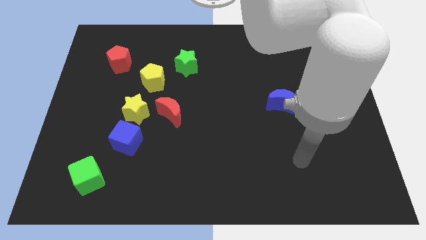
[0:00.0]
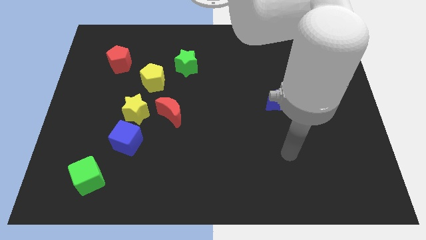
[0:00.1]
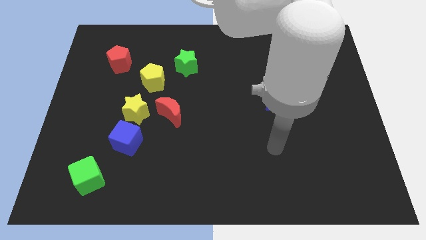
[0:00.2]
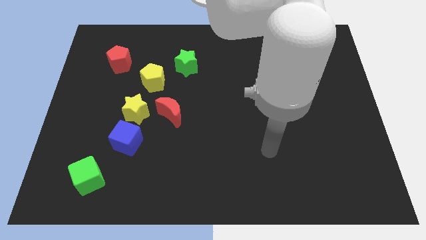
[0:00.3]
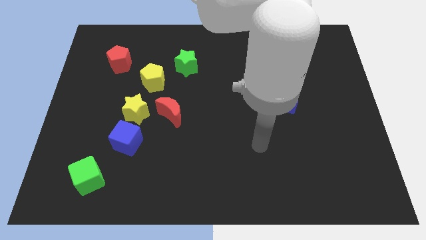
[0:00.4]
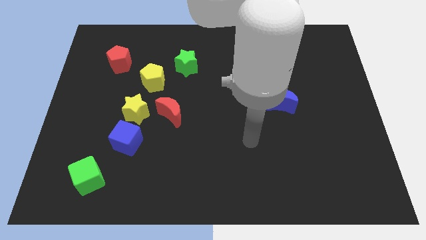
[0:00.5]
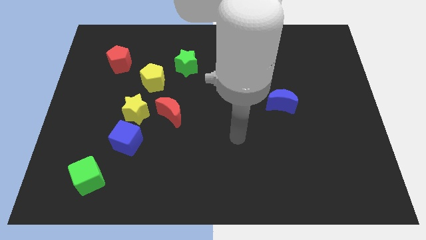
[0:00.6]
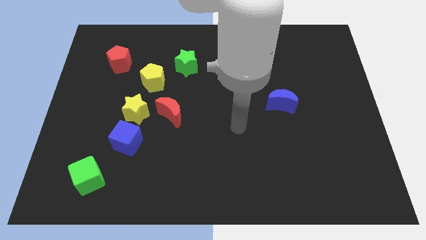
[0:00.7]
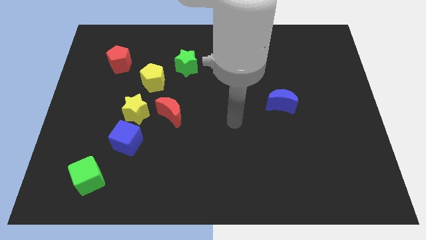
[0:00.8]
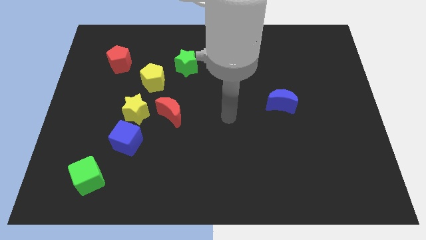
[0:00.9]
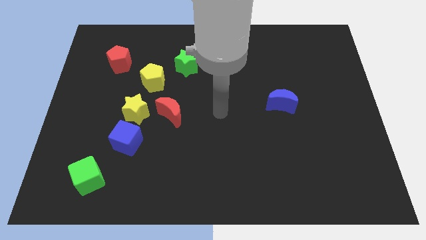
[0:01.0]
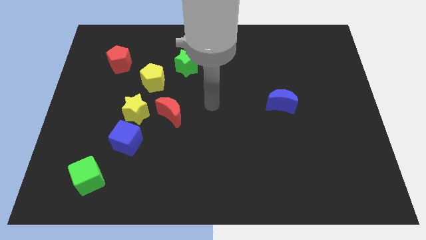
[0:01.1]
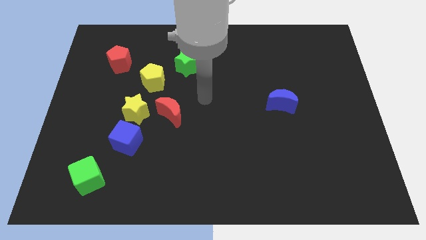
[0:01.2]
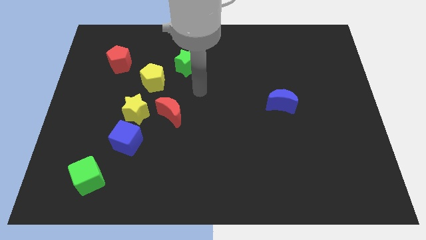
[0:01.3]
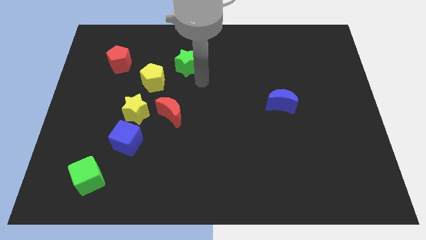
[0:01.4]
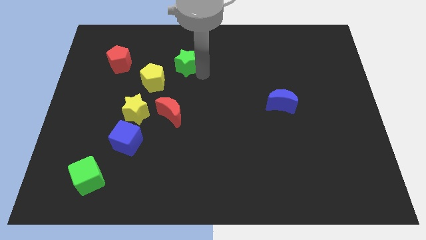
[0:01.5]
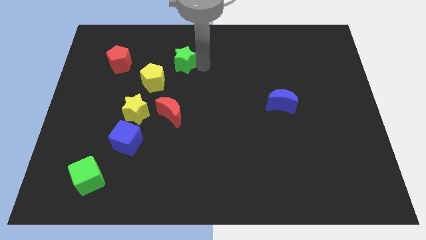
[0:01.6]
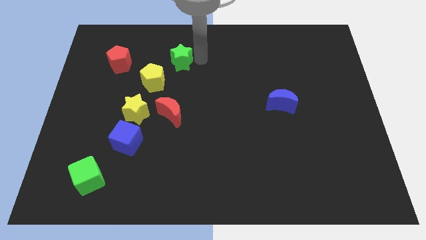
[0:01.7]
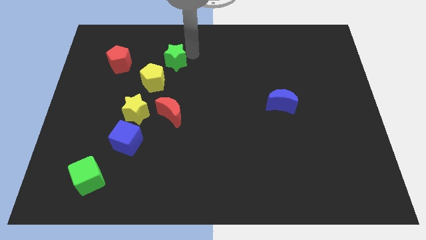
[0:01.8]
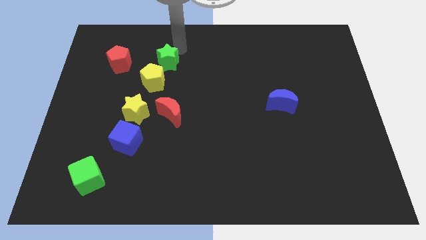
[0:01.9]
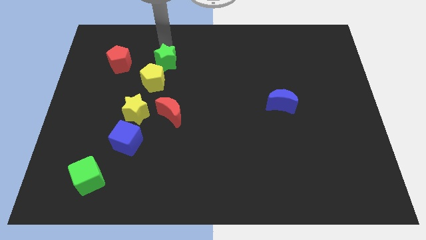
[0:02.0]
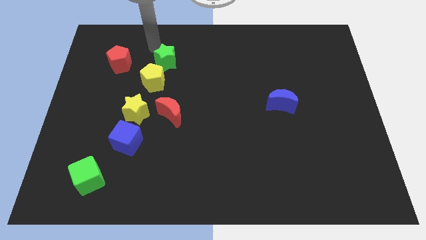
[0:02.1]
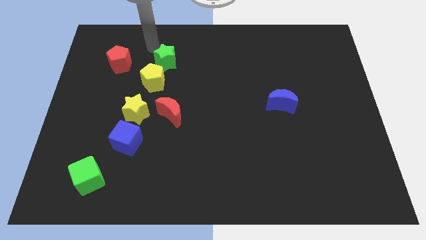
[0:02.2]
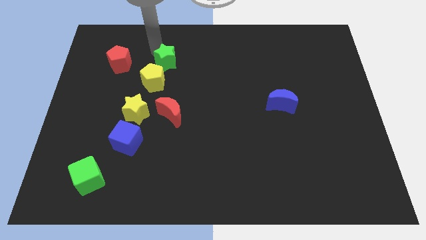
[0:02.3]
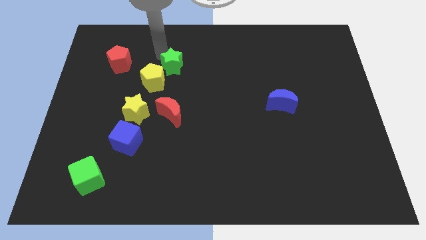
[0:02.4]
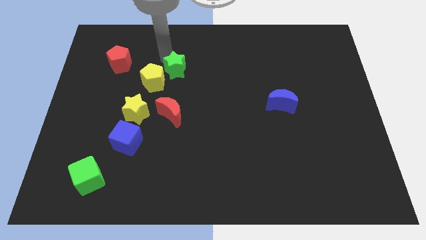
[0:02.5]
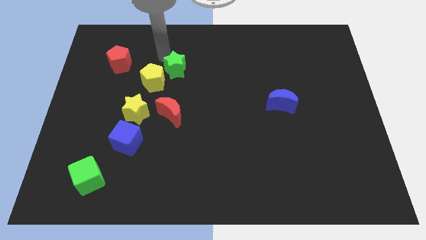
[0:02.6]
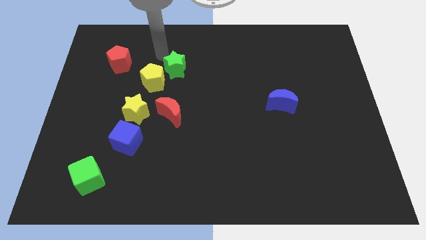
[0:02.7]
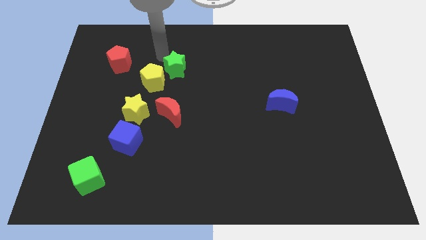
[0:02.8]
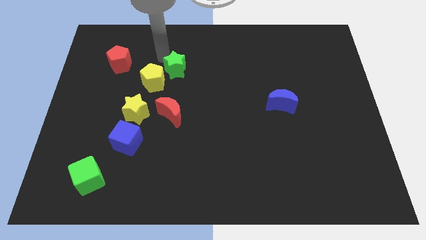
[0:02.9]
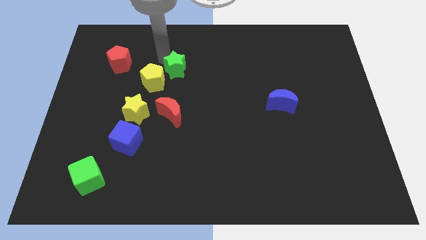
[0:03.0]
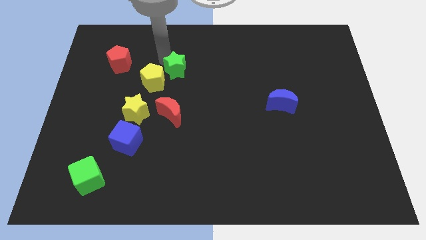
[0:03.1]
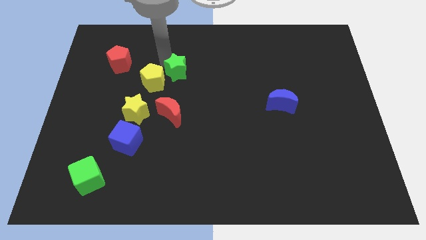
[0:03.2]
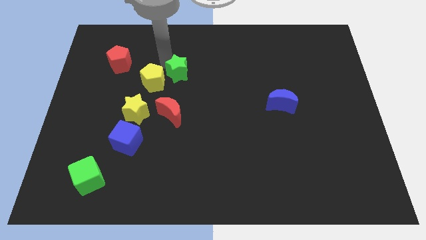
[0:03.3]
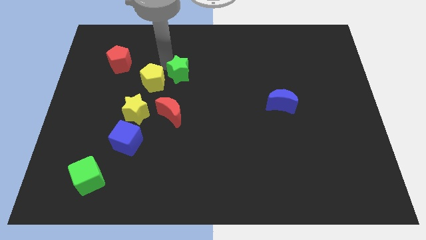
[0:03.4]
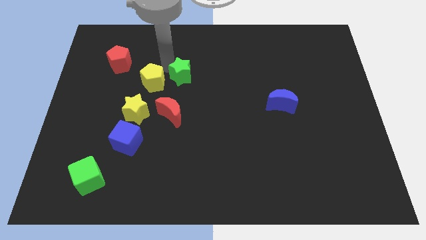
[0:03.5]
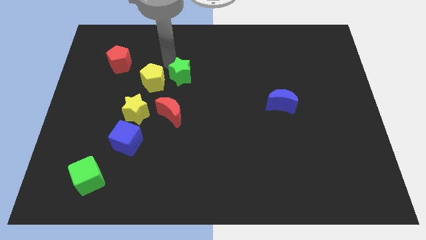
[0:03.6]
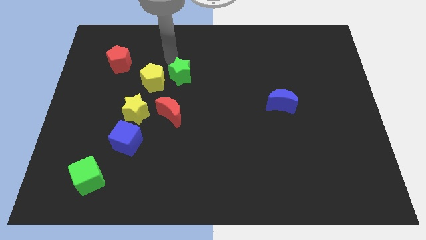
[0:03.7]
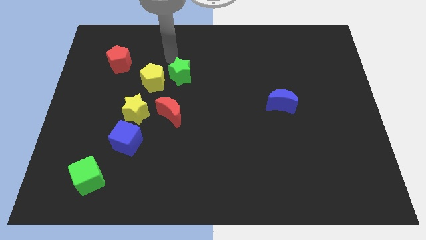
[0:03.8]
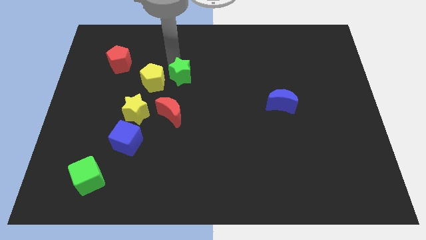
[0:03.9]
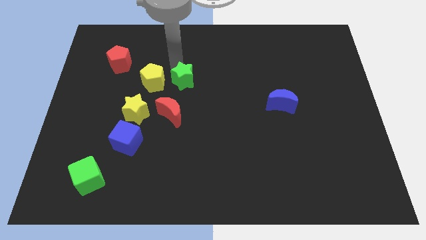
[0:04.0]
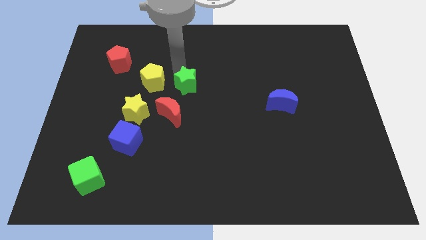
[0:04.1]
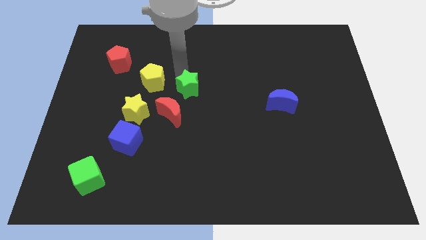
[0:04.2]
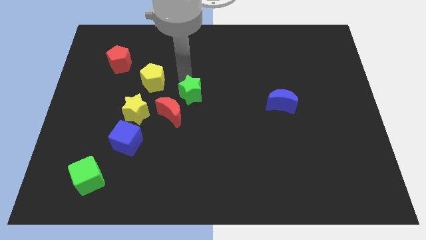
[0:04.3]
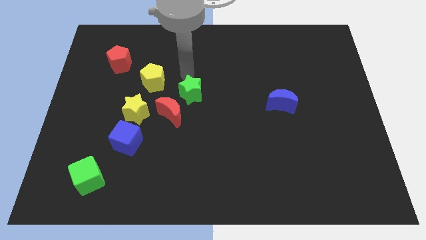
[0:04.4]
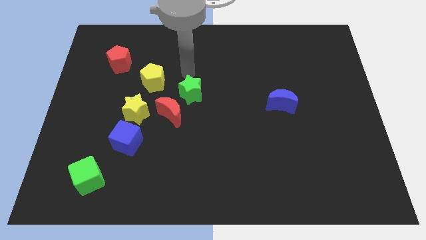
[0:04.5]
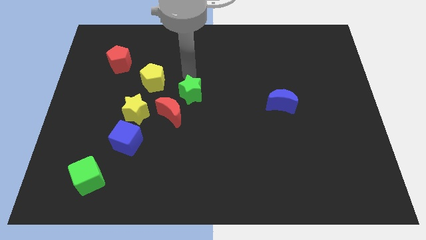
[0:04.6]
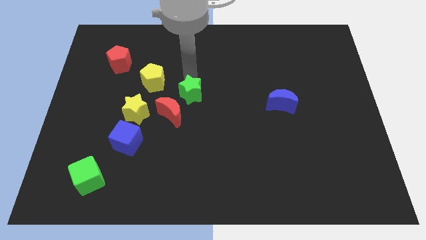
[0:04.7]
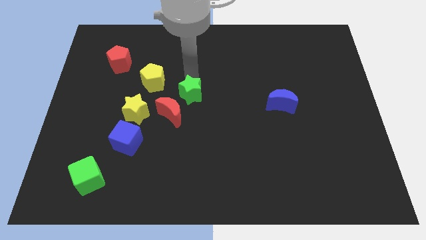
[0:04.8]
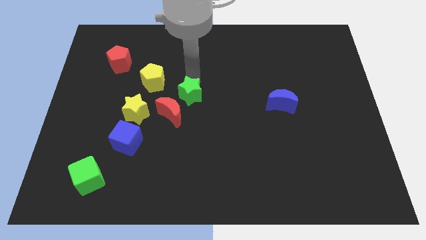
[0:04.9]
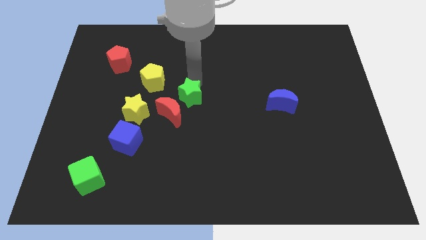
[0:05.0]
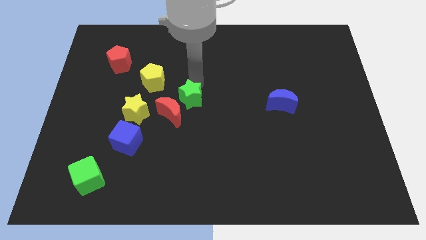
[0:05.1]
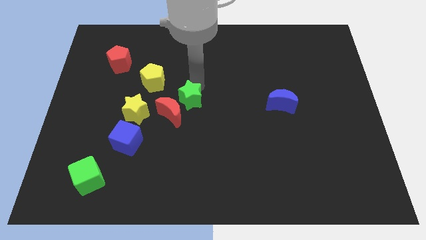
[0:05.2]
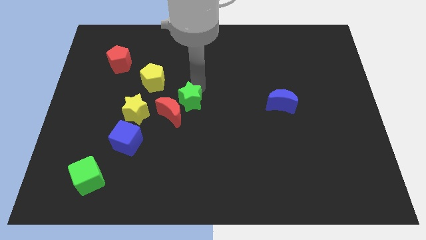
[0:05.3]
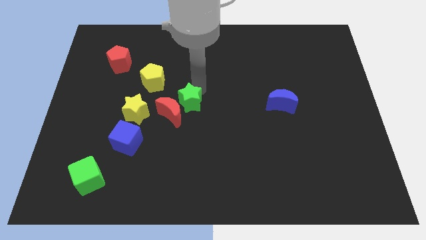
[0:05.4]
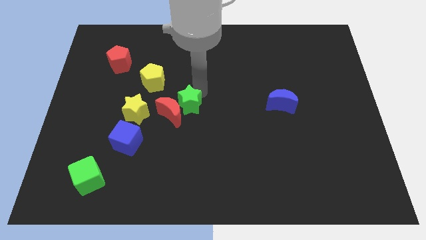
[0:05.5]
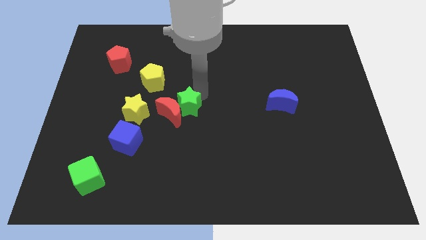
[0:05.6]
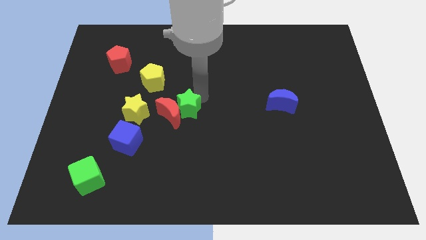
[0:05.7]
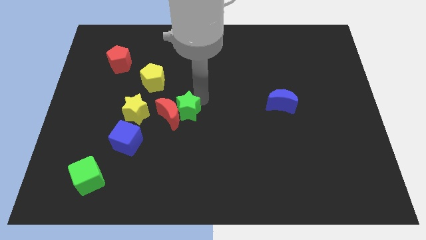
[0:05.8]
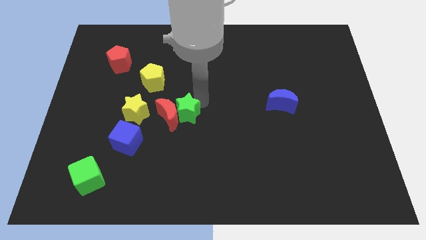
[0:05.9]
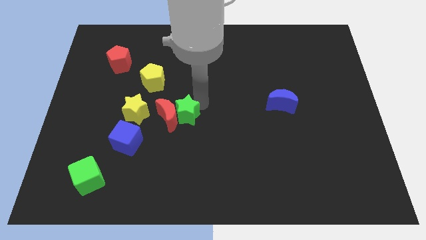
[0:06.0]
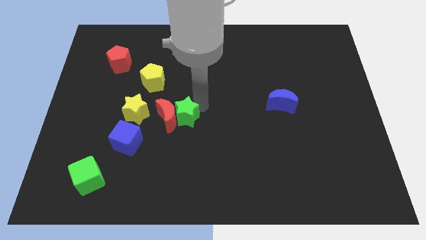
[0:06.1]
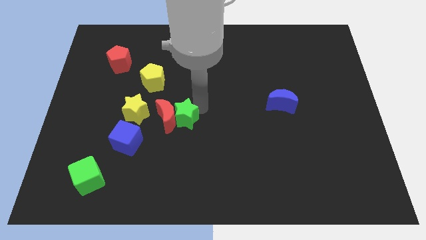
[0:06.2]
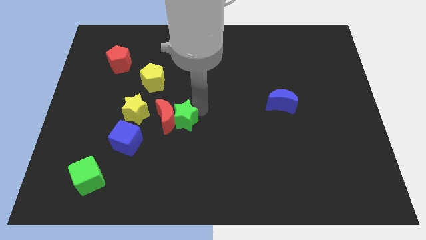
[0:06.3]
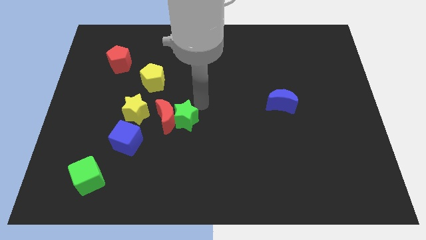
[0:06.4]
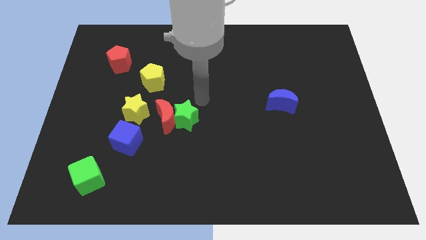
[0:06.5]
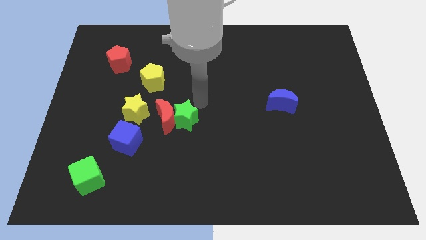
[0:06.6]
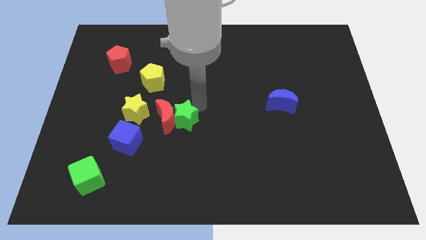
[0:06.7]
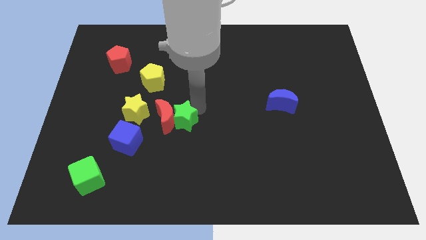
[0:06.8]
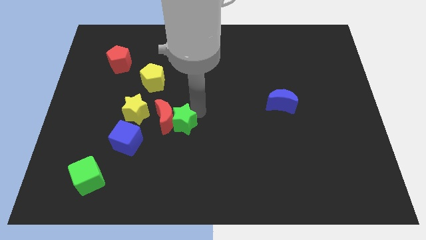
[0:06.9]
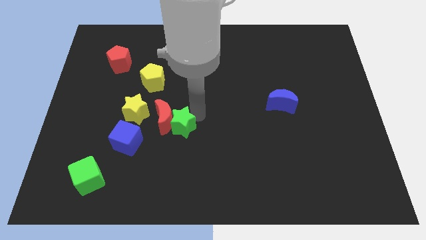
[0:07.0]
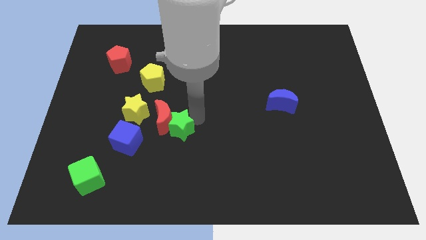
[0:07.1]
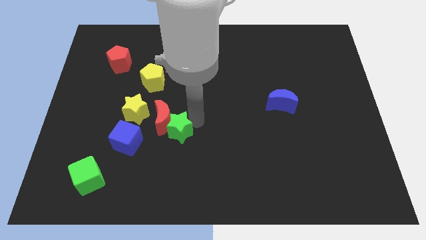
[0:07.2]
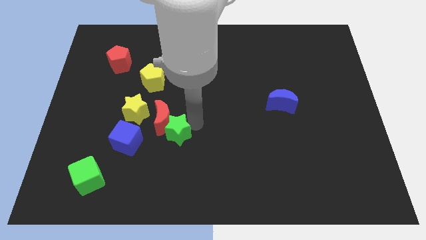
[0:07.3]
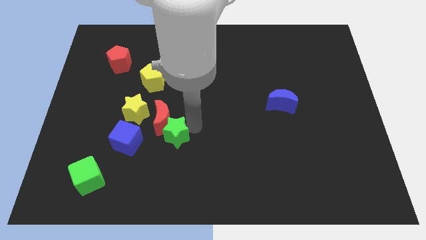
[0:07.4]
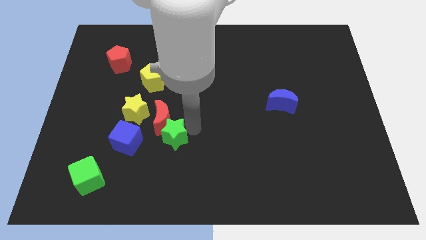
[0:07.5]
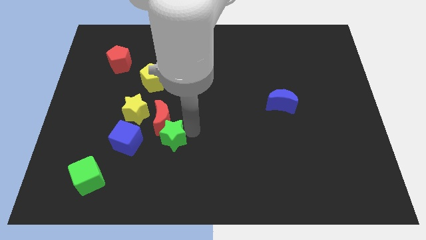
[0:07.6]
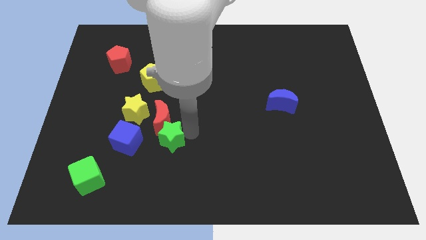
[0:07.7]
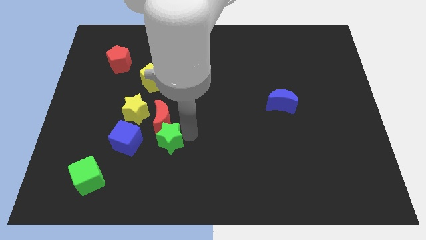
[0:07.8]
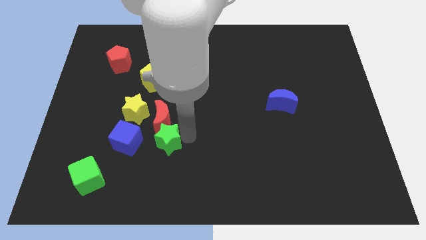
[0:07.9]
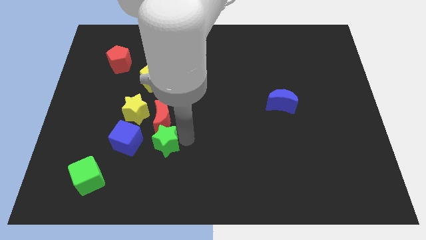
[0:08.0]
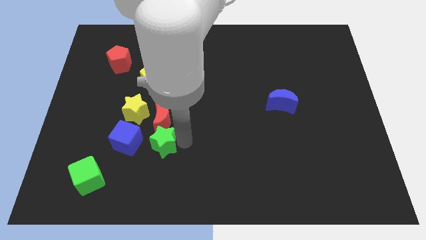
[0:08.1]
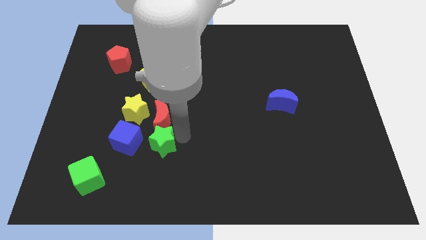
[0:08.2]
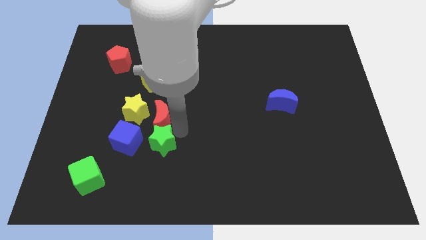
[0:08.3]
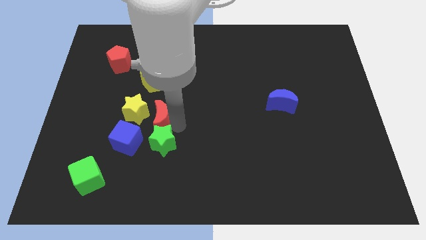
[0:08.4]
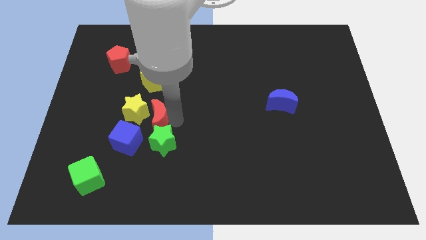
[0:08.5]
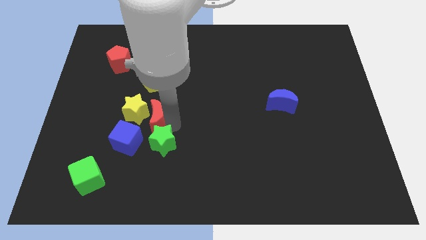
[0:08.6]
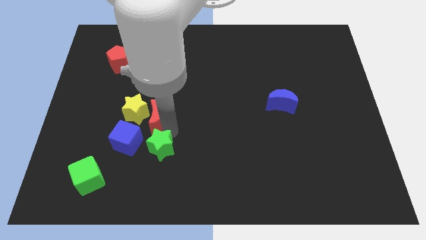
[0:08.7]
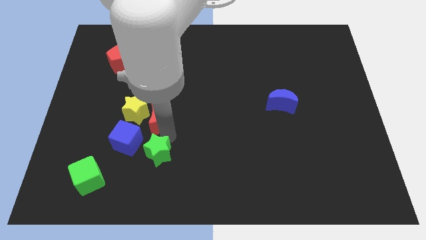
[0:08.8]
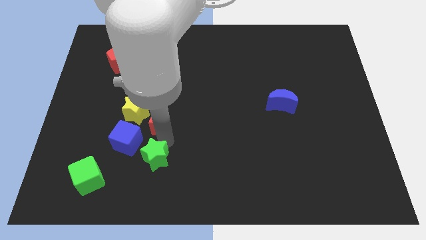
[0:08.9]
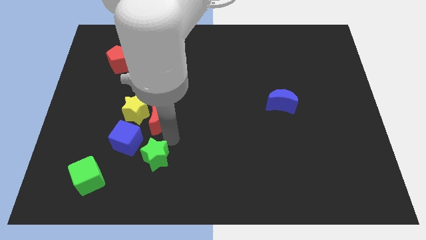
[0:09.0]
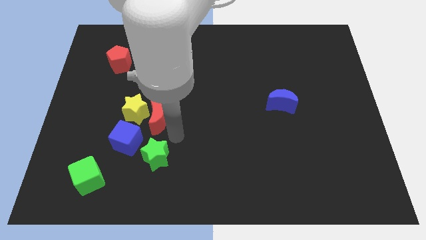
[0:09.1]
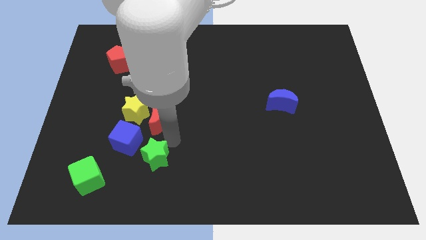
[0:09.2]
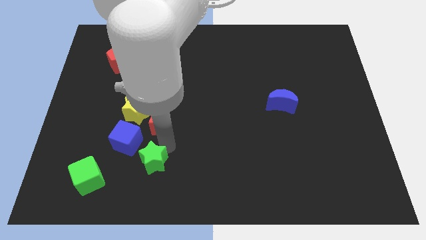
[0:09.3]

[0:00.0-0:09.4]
slide the green star to the right side of the green cube
